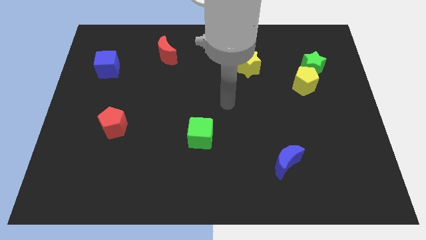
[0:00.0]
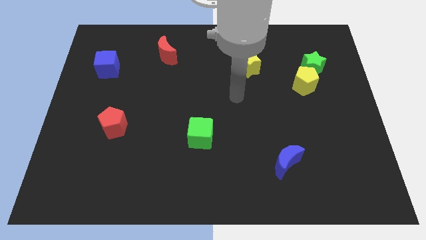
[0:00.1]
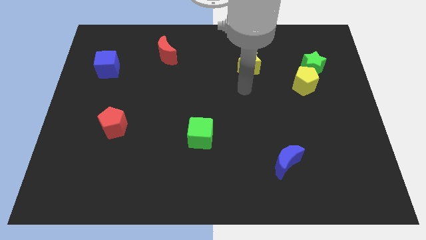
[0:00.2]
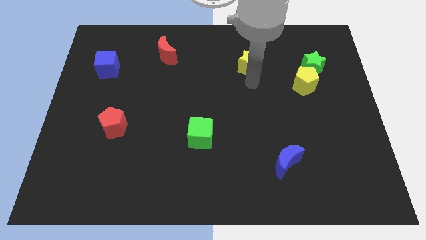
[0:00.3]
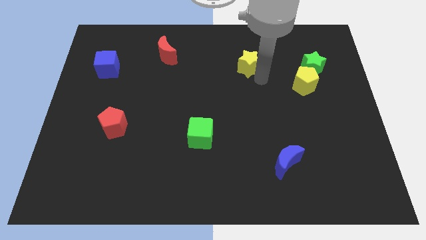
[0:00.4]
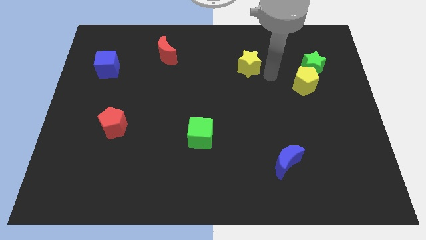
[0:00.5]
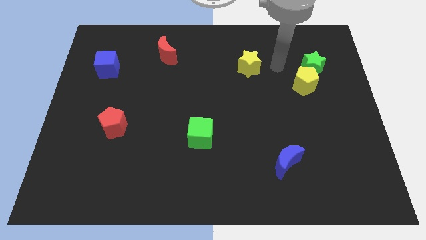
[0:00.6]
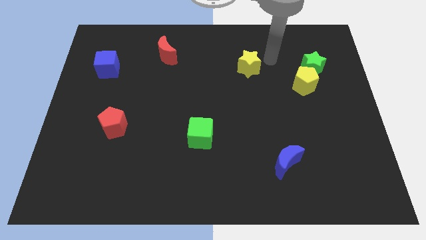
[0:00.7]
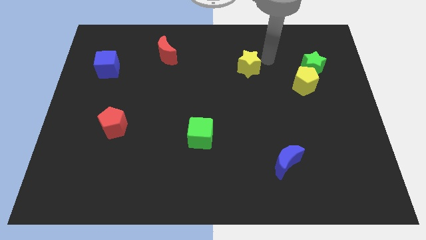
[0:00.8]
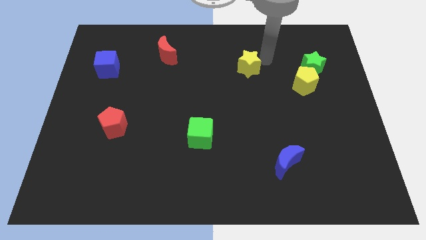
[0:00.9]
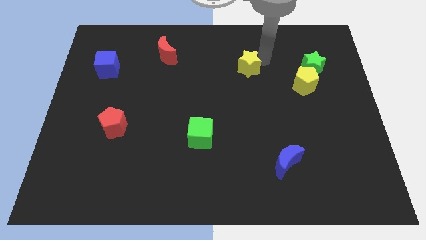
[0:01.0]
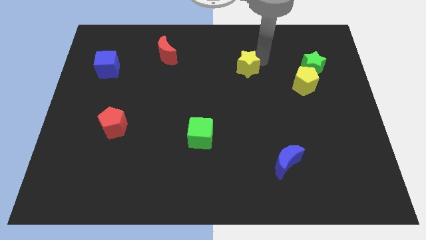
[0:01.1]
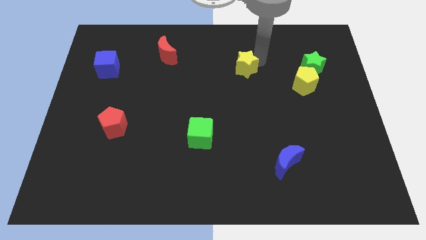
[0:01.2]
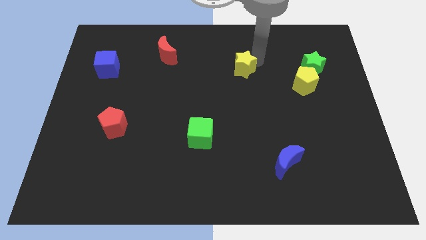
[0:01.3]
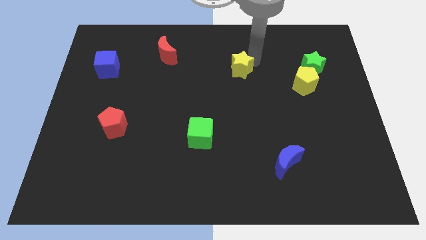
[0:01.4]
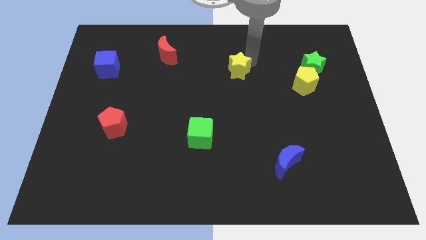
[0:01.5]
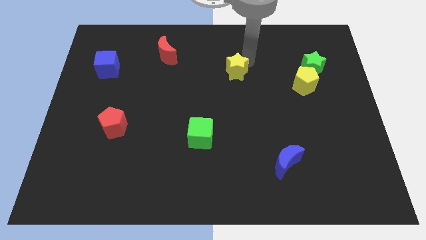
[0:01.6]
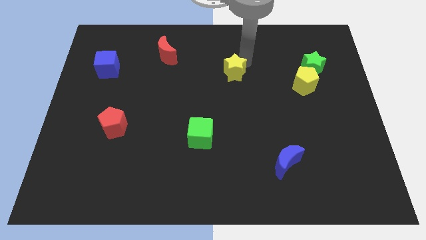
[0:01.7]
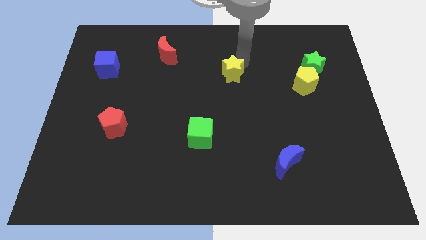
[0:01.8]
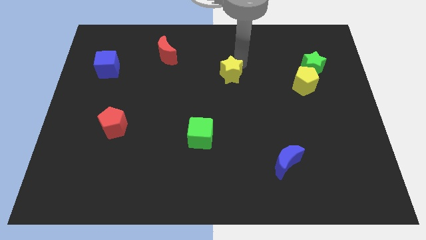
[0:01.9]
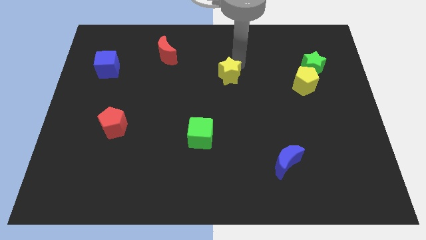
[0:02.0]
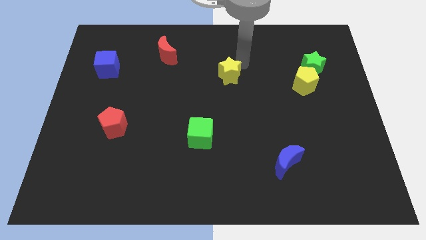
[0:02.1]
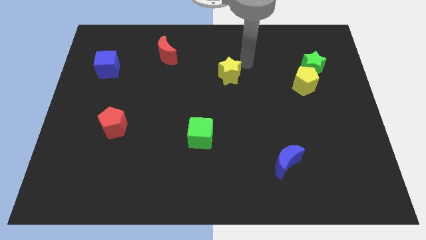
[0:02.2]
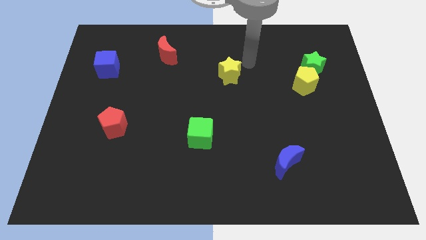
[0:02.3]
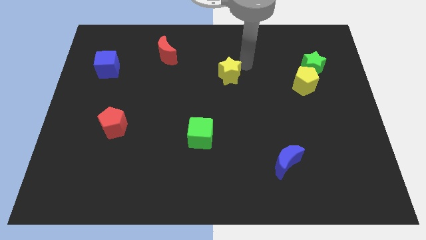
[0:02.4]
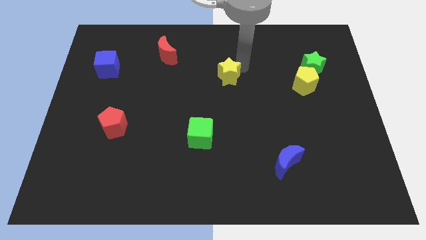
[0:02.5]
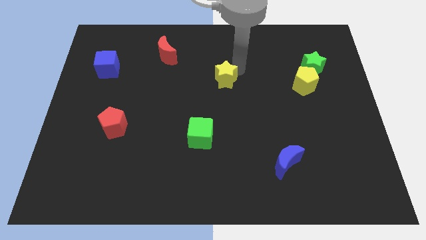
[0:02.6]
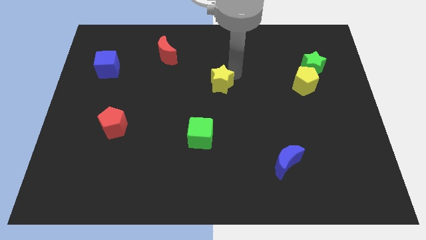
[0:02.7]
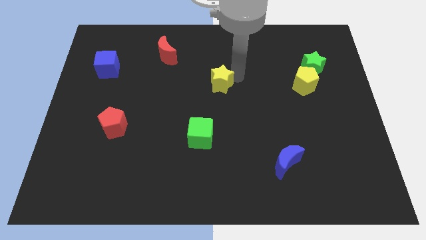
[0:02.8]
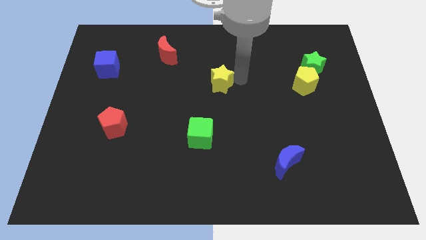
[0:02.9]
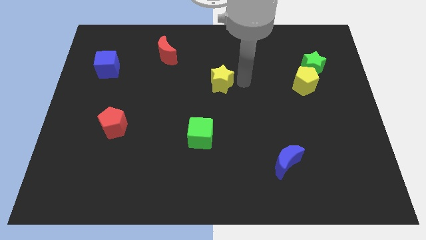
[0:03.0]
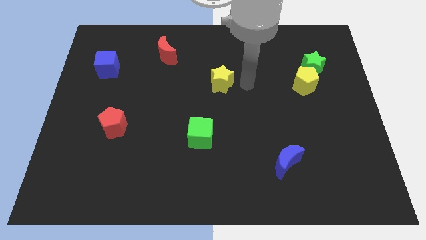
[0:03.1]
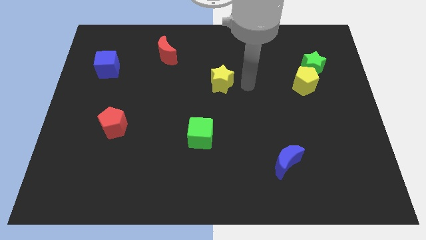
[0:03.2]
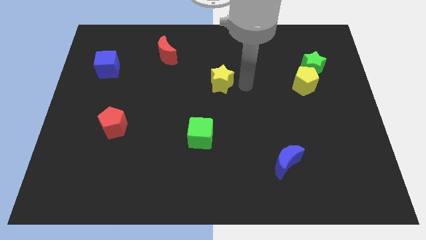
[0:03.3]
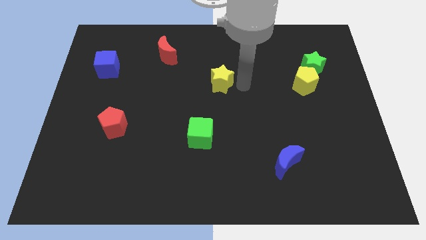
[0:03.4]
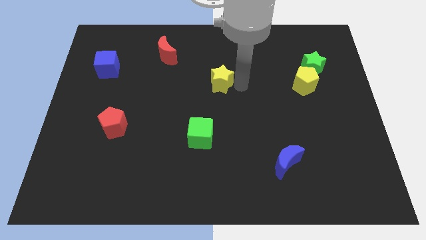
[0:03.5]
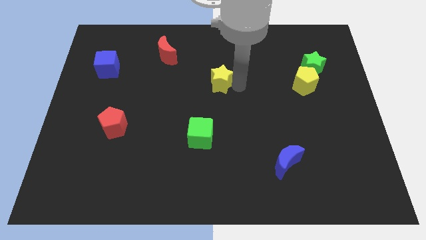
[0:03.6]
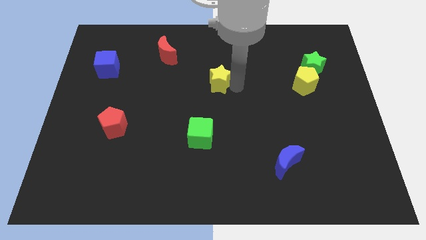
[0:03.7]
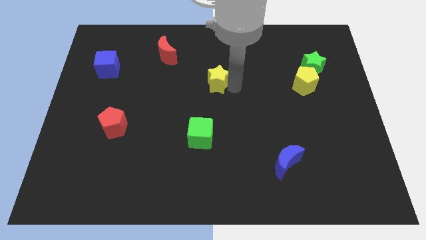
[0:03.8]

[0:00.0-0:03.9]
slightly push the yellow star left

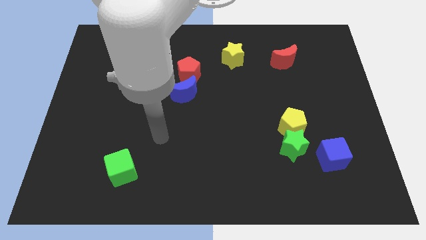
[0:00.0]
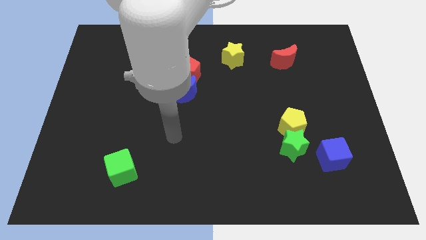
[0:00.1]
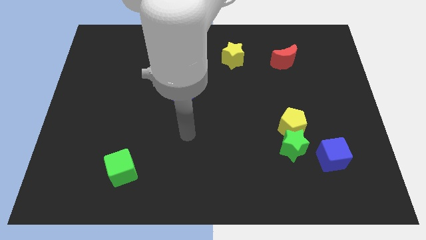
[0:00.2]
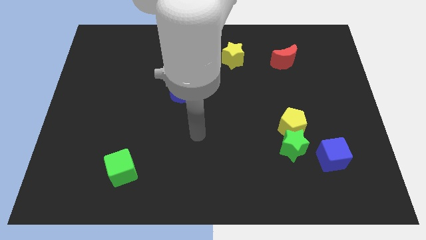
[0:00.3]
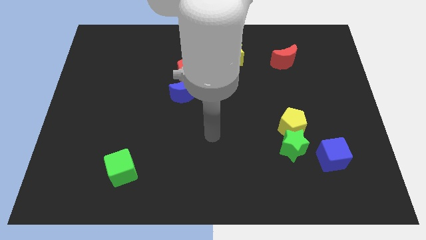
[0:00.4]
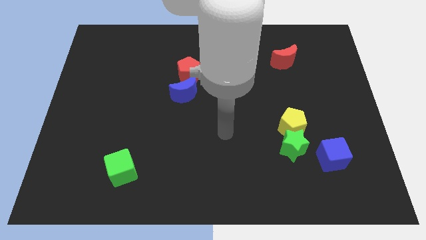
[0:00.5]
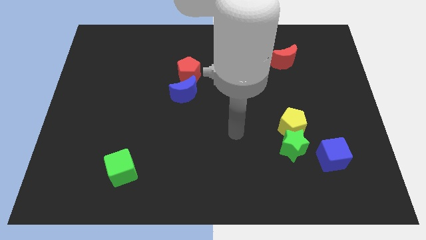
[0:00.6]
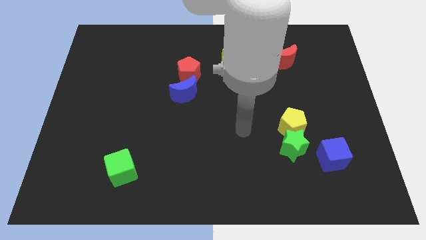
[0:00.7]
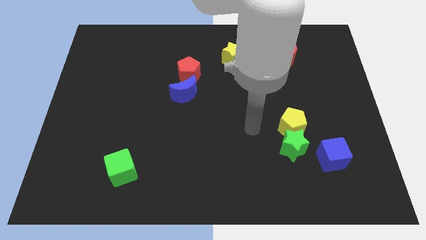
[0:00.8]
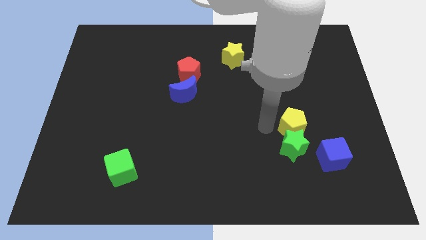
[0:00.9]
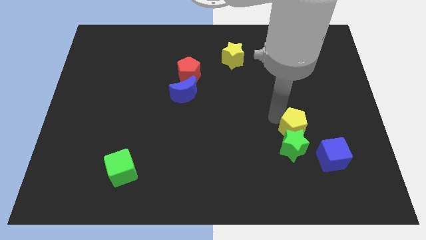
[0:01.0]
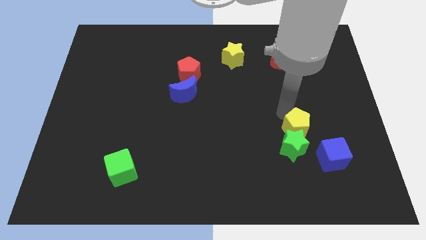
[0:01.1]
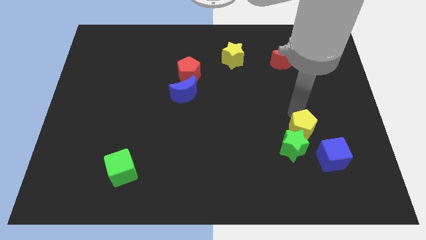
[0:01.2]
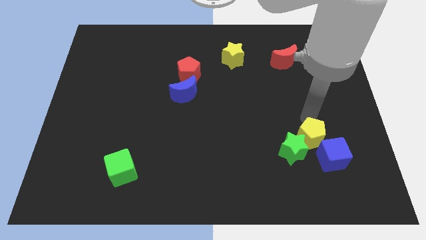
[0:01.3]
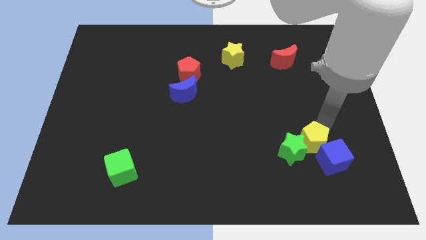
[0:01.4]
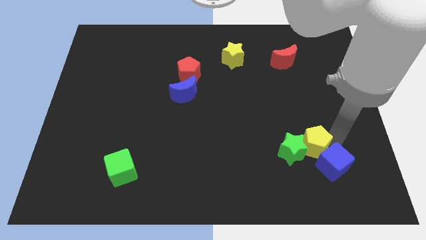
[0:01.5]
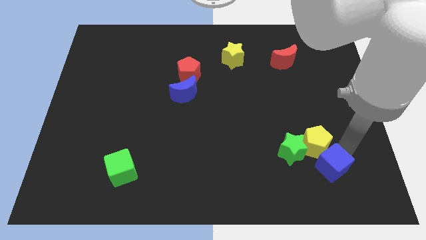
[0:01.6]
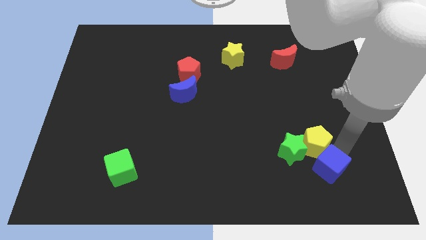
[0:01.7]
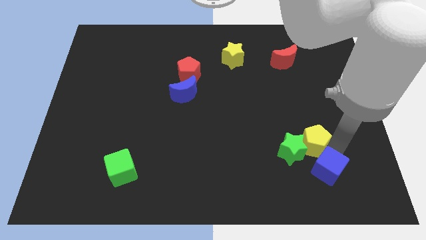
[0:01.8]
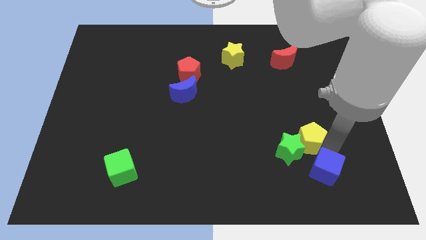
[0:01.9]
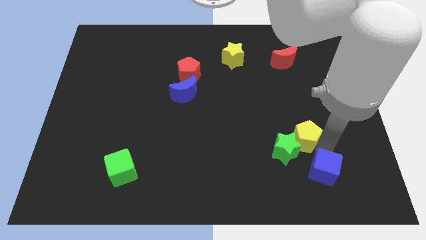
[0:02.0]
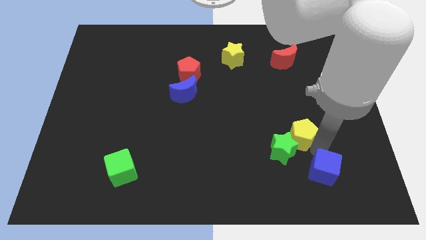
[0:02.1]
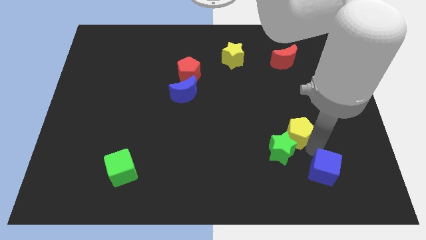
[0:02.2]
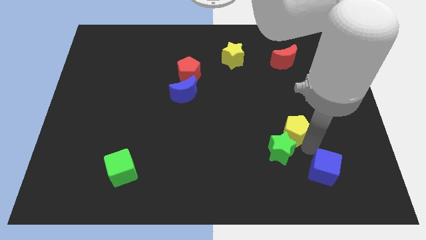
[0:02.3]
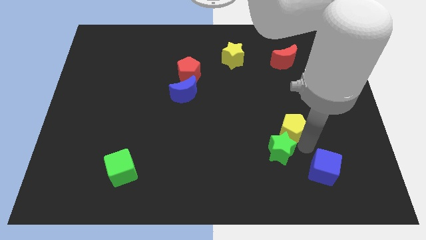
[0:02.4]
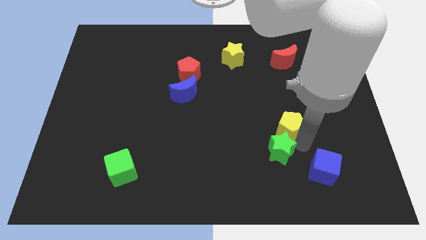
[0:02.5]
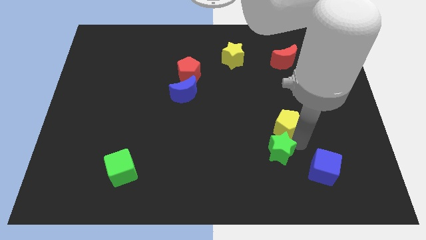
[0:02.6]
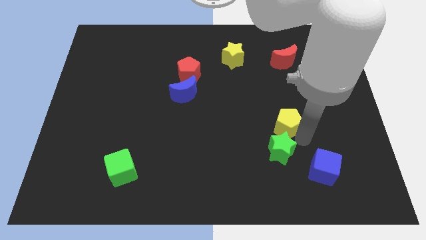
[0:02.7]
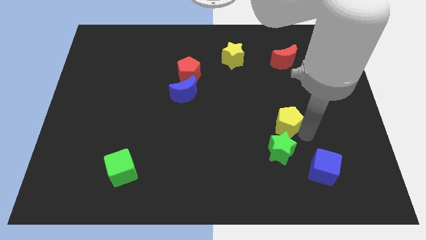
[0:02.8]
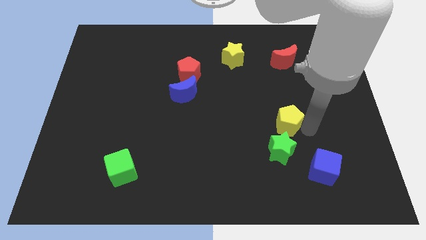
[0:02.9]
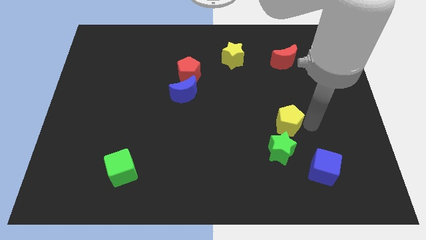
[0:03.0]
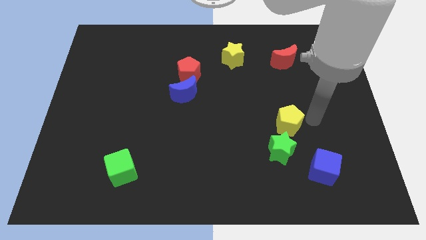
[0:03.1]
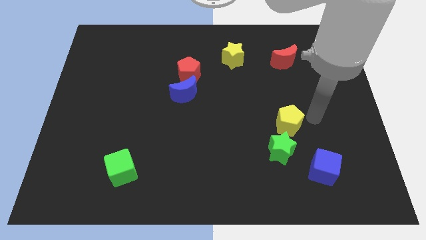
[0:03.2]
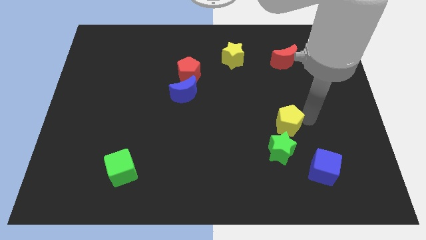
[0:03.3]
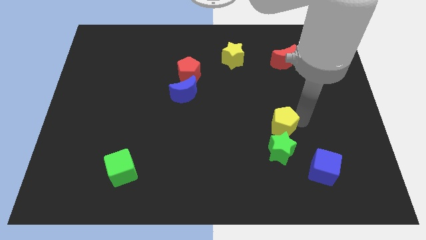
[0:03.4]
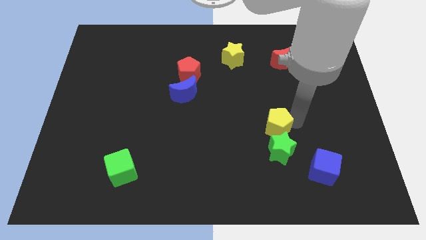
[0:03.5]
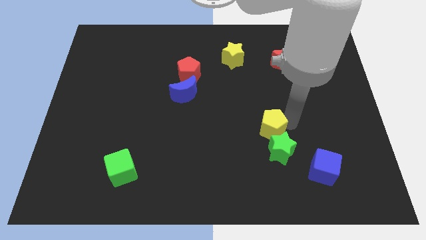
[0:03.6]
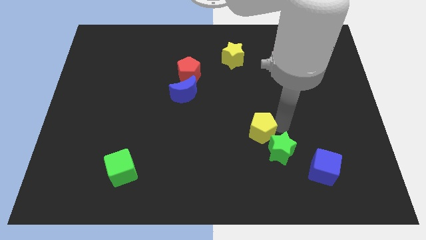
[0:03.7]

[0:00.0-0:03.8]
slightly slide the yellow pentagon left

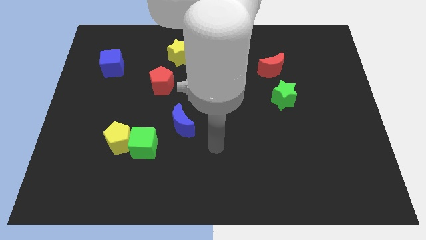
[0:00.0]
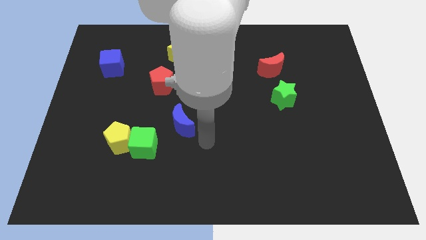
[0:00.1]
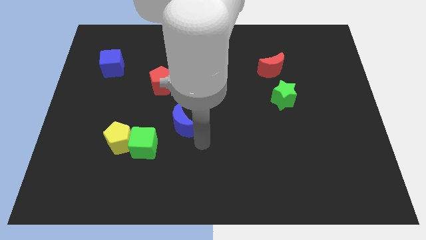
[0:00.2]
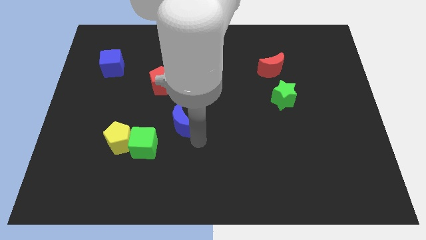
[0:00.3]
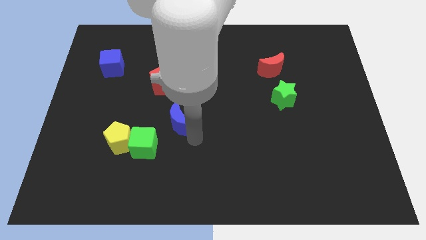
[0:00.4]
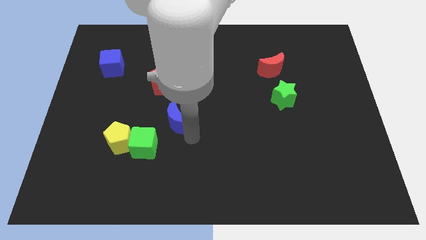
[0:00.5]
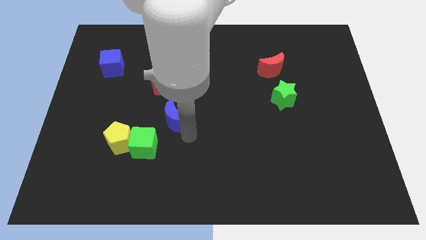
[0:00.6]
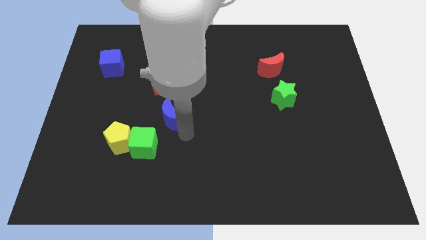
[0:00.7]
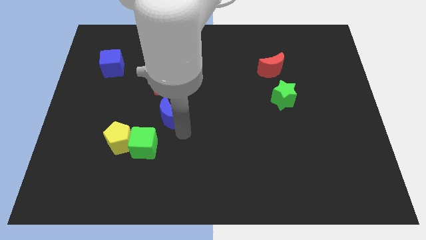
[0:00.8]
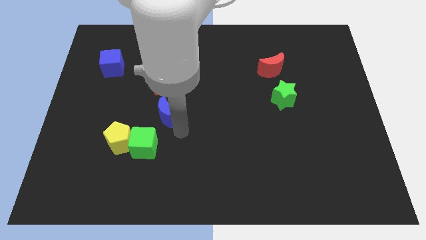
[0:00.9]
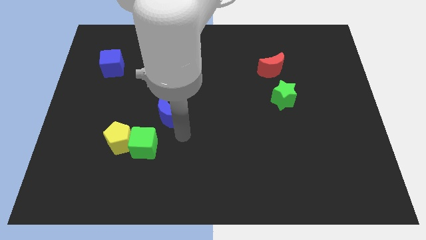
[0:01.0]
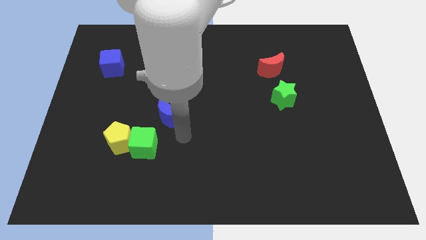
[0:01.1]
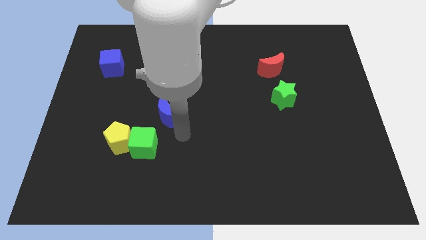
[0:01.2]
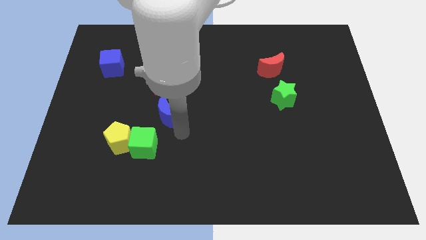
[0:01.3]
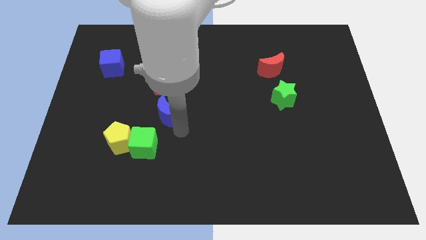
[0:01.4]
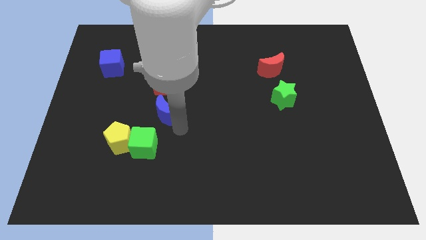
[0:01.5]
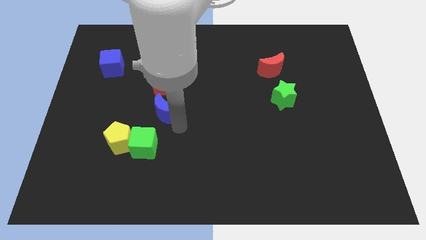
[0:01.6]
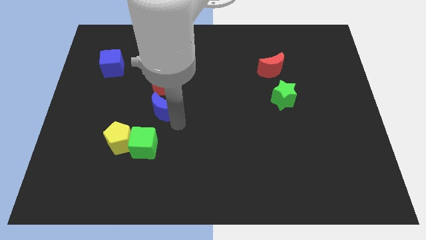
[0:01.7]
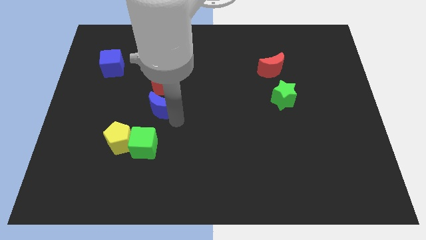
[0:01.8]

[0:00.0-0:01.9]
move the blue moon a bit diagonally up and left
